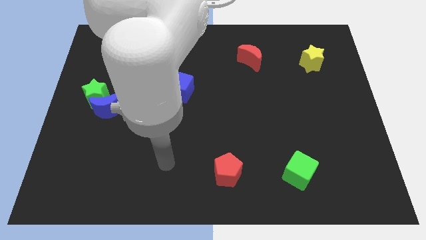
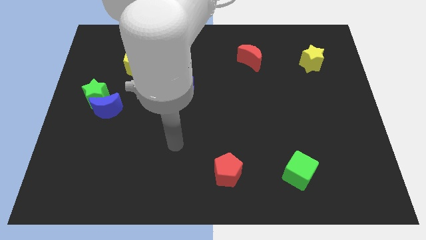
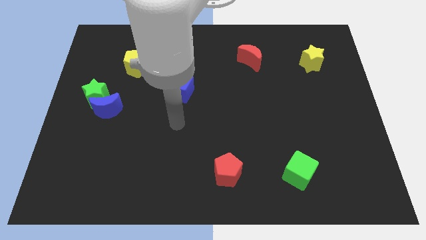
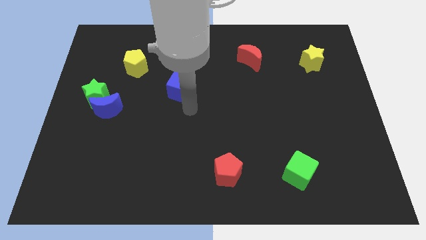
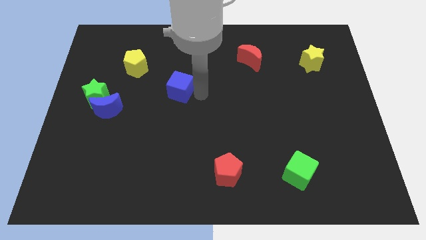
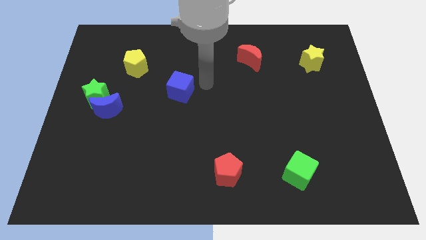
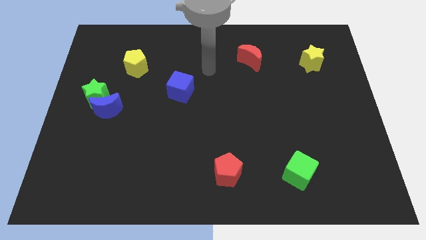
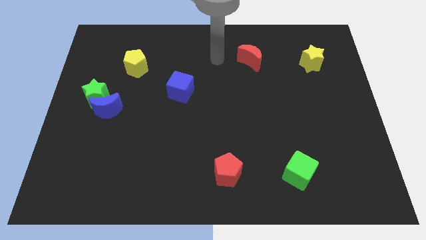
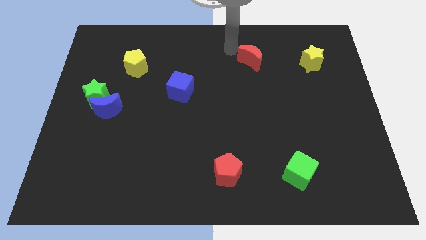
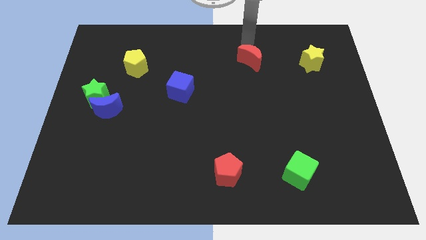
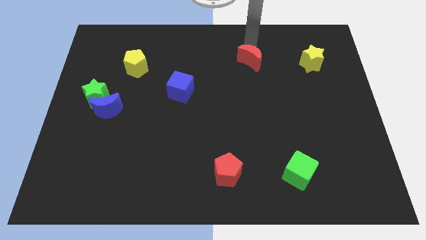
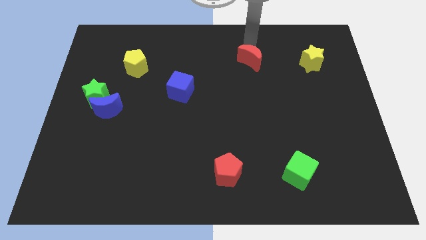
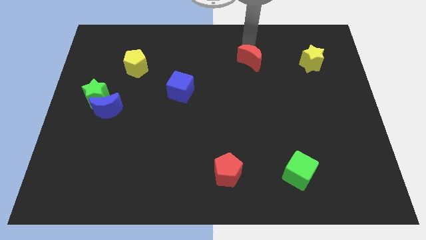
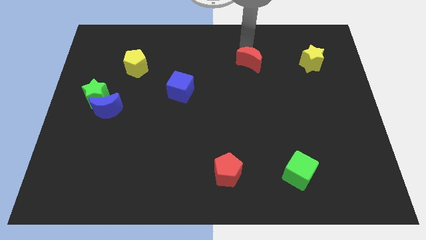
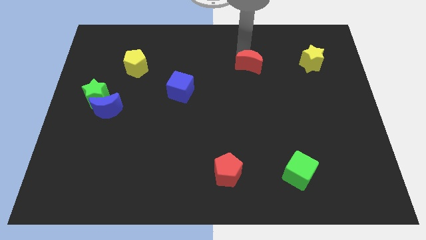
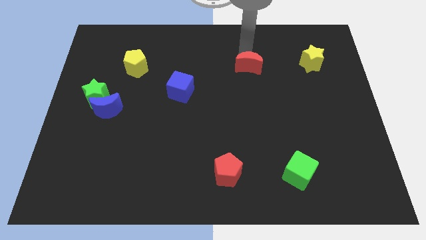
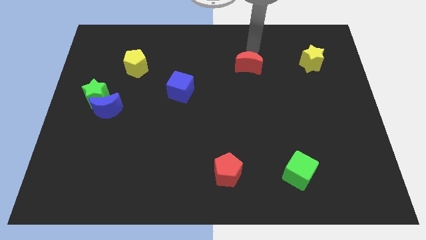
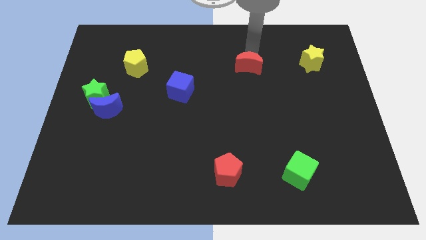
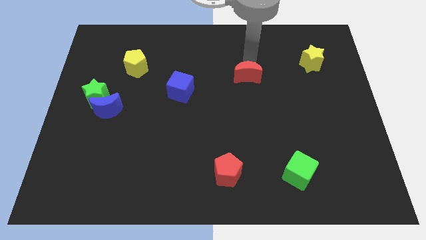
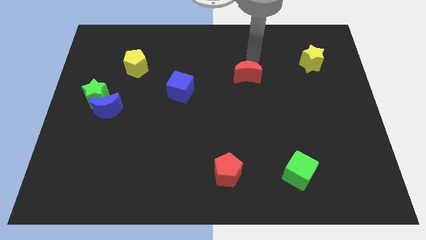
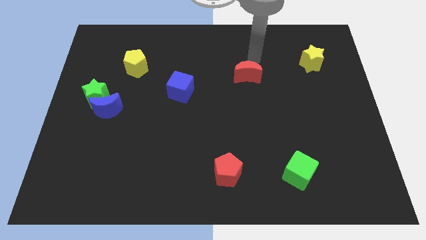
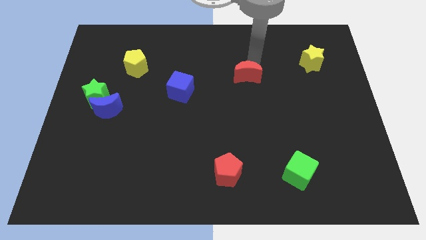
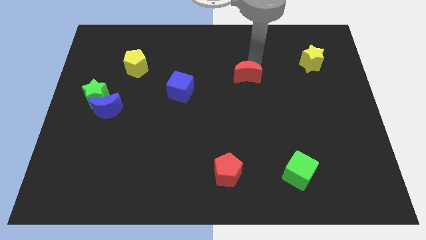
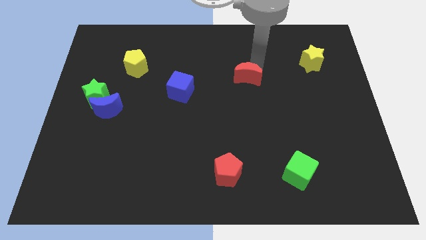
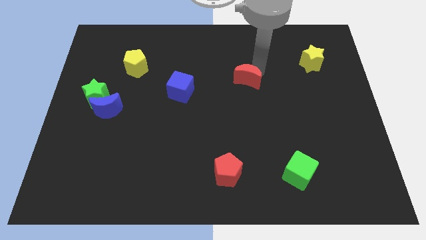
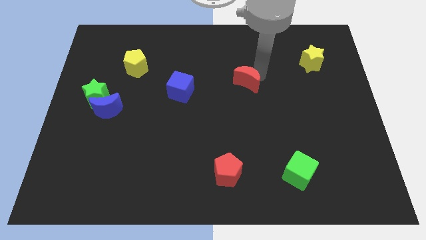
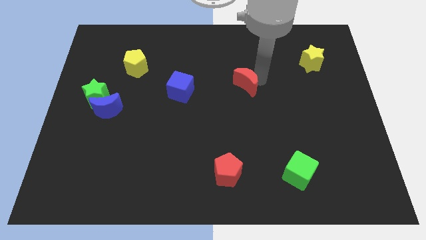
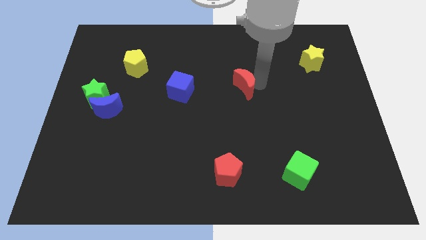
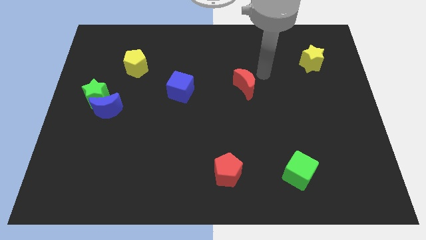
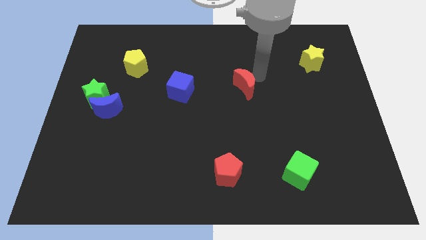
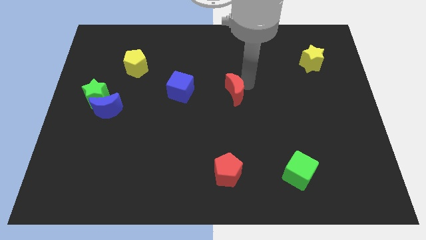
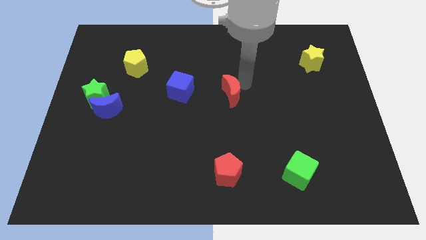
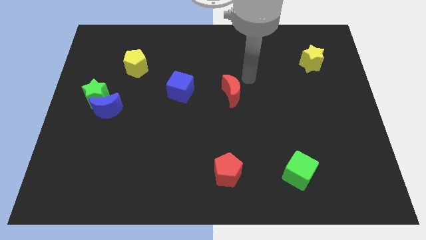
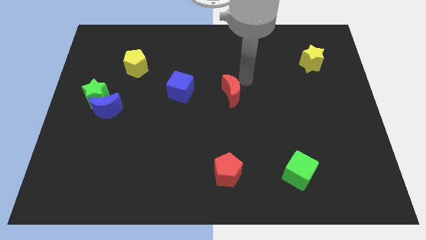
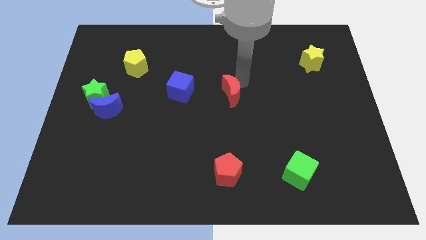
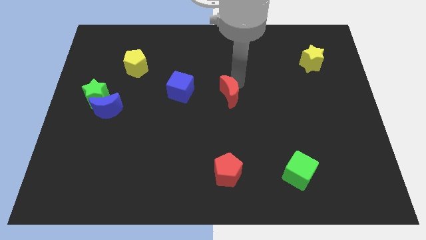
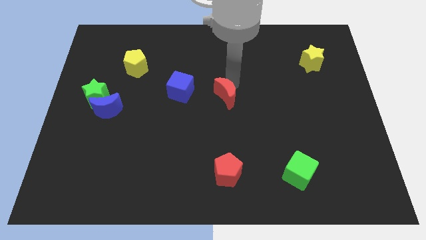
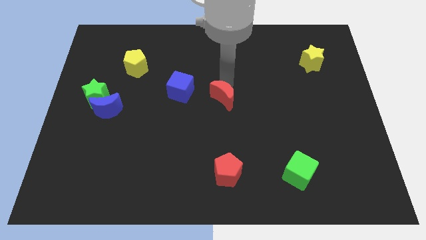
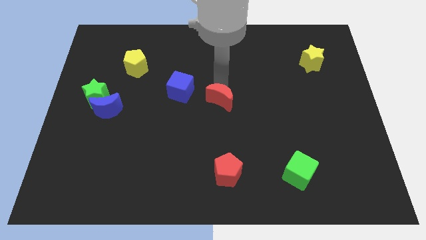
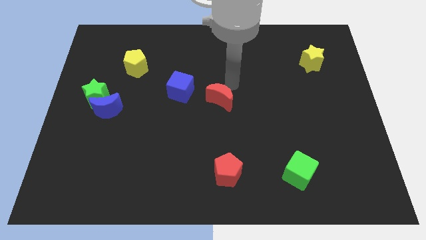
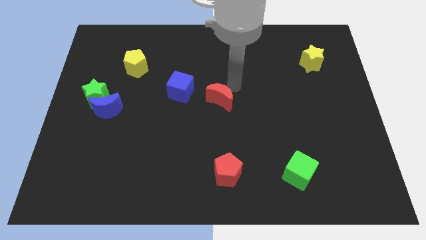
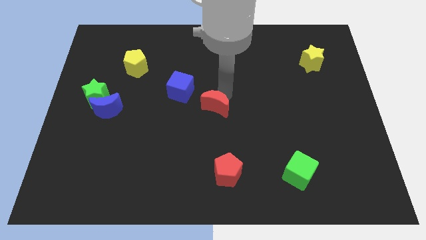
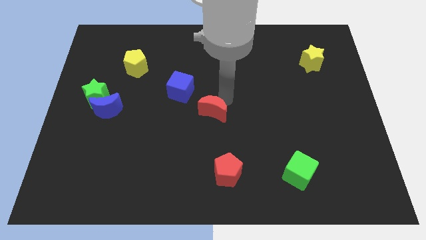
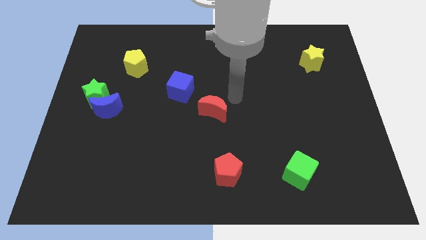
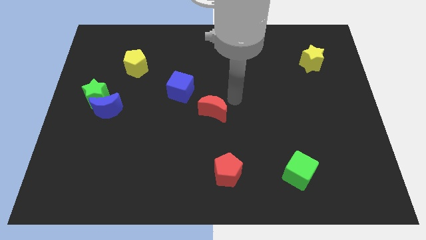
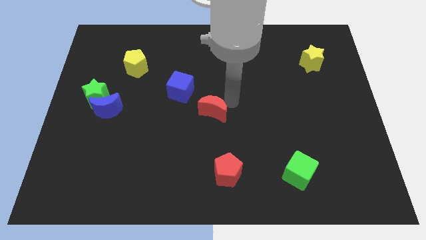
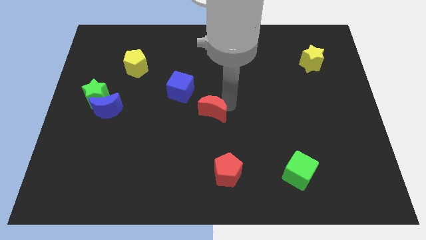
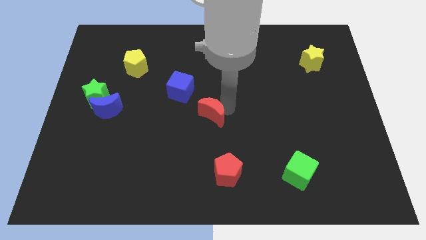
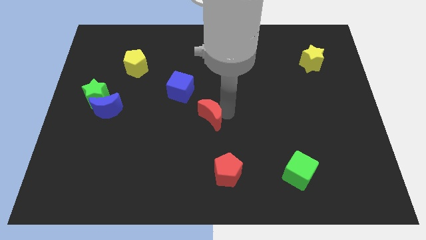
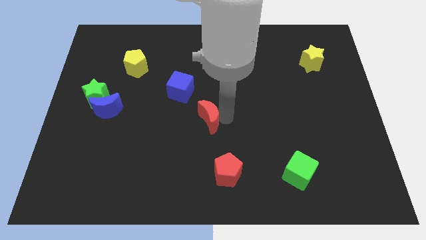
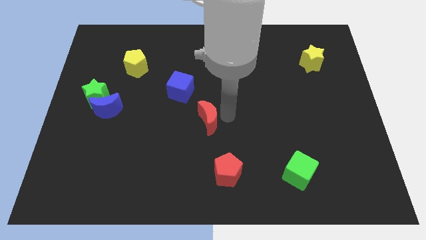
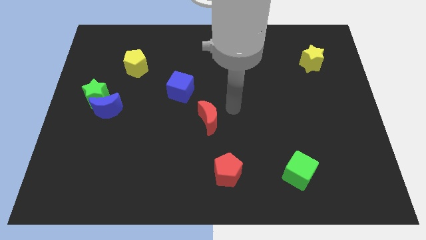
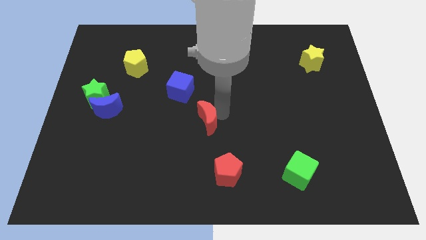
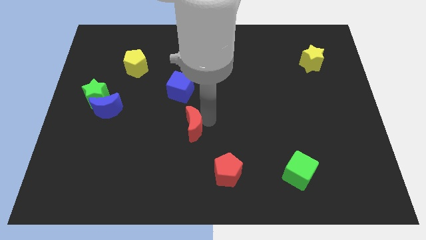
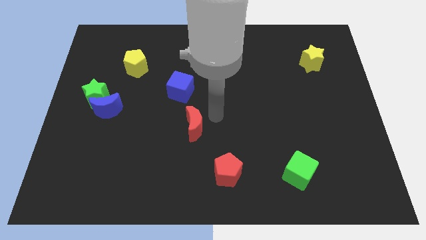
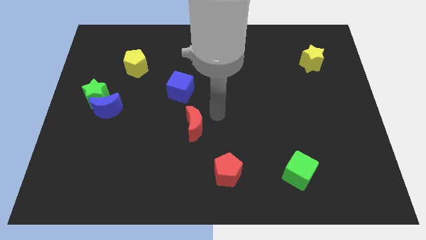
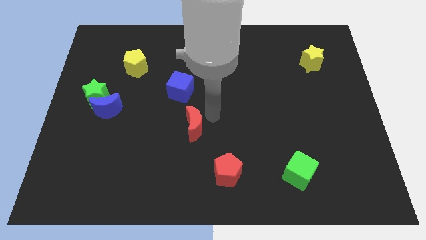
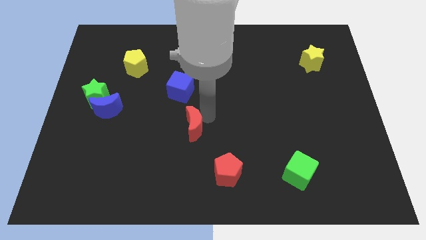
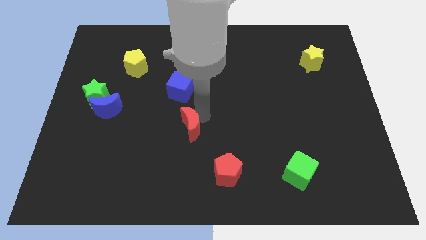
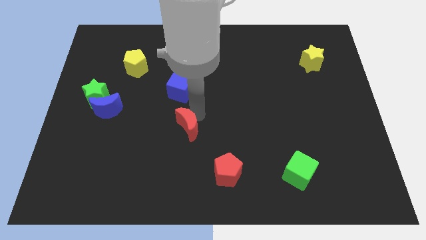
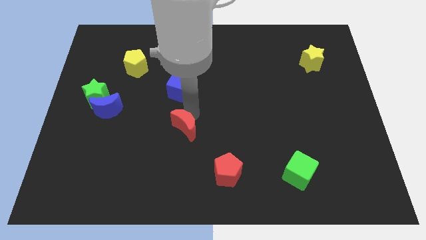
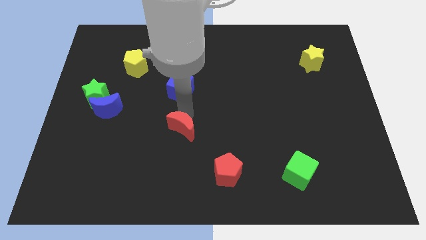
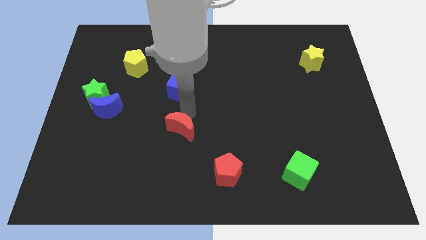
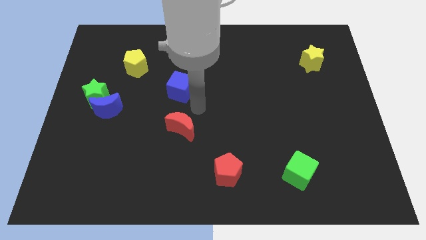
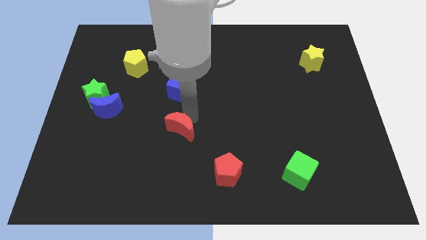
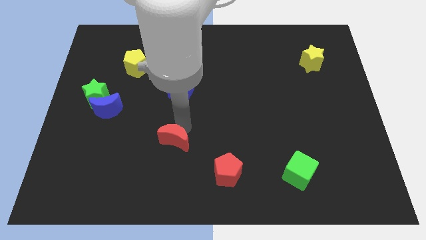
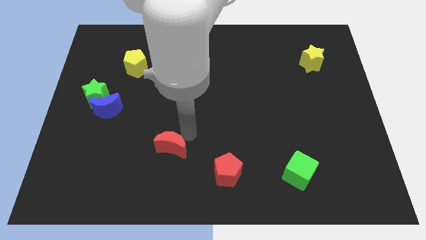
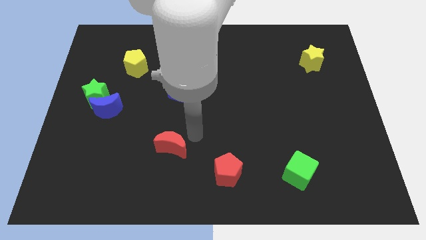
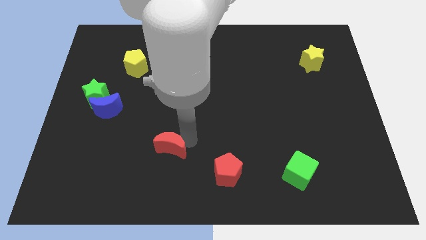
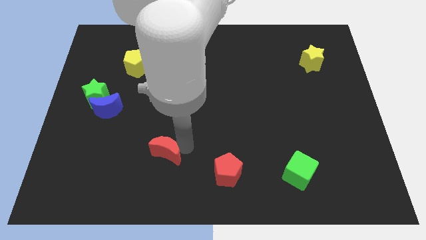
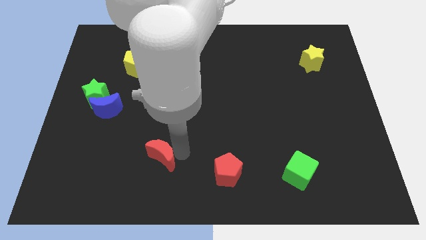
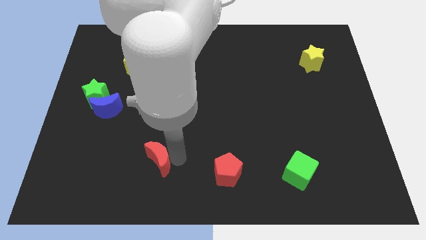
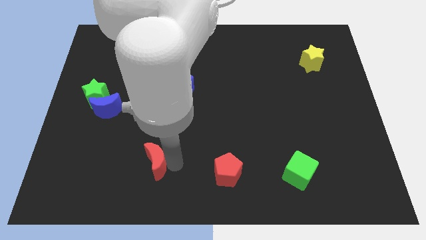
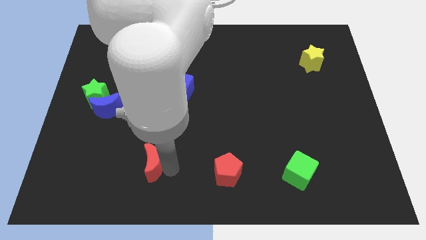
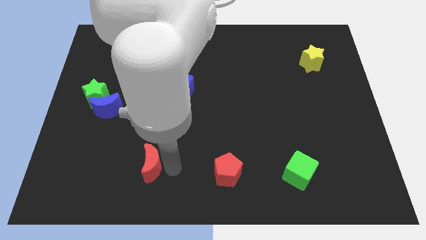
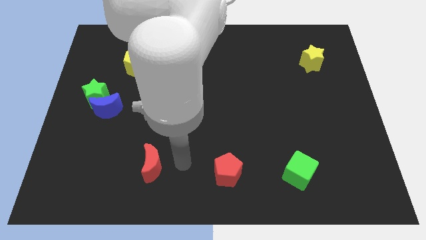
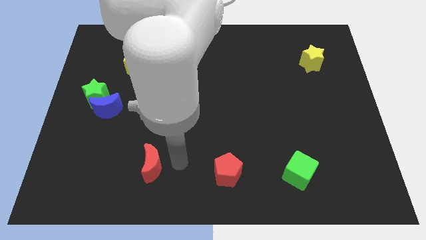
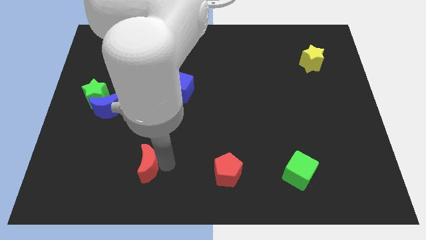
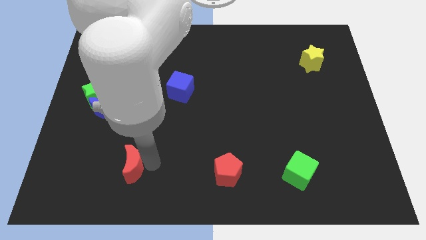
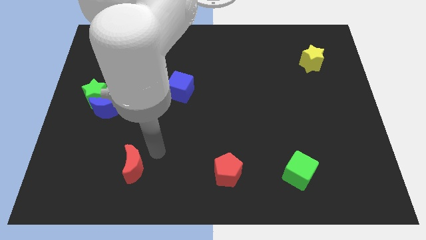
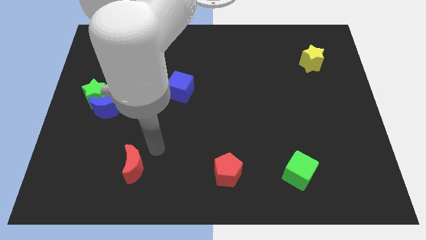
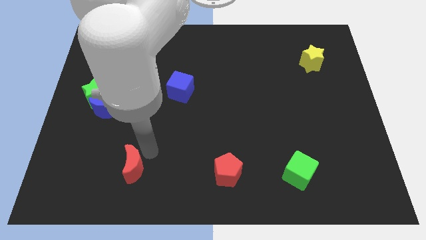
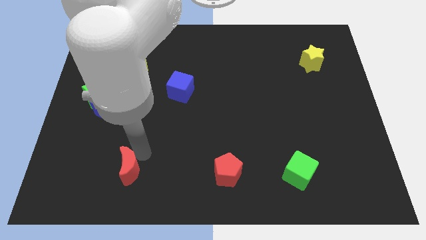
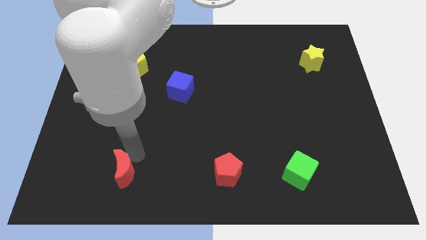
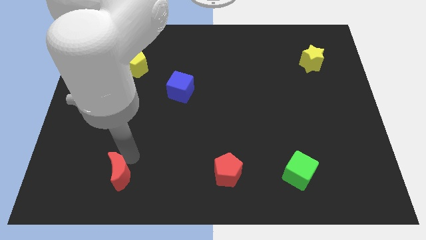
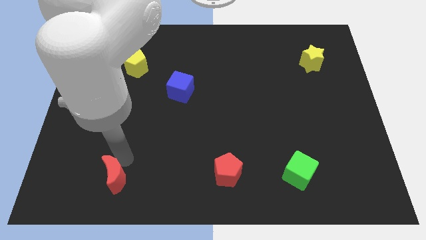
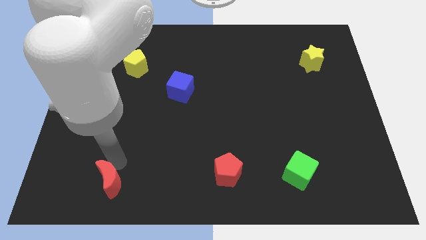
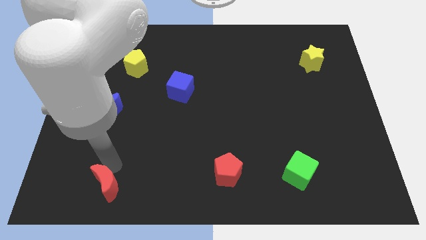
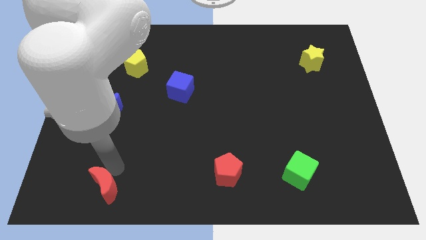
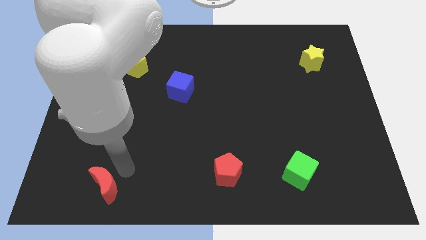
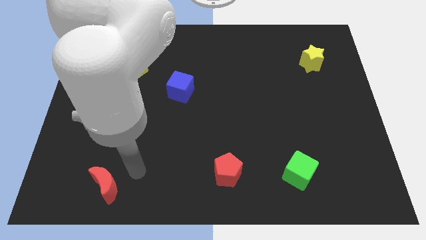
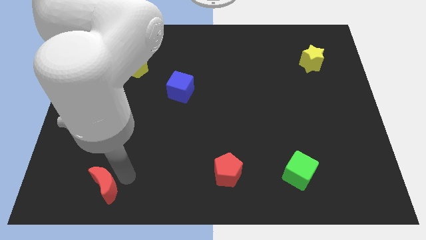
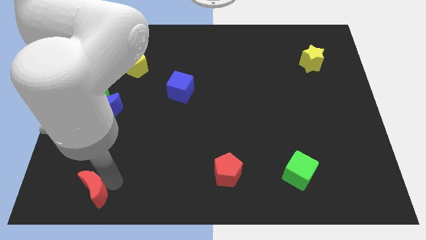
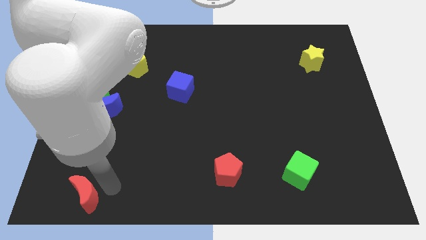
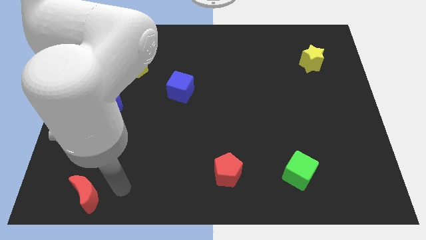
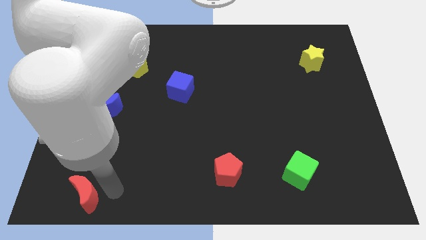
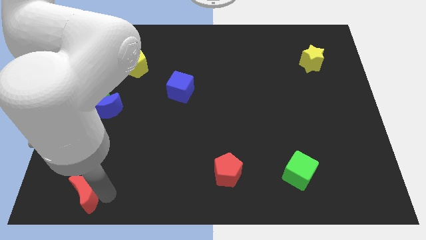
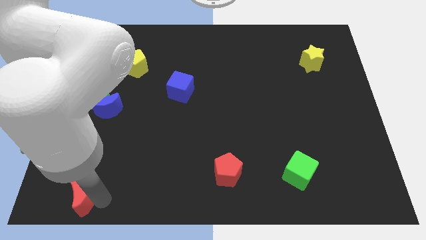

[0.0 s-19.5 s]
put the red moon to the bottom left of the board
